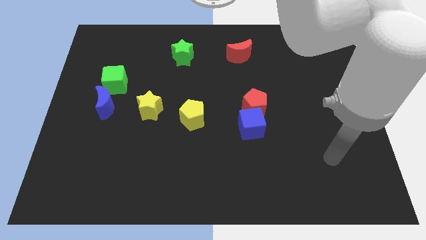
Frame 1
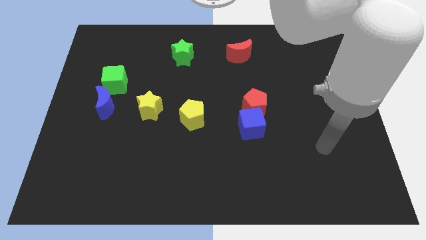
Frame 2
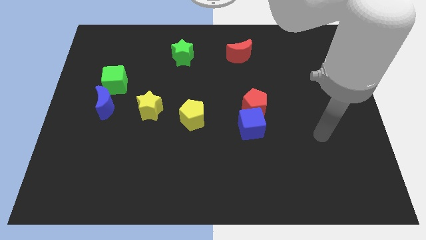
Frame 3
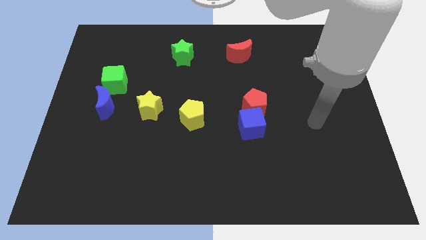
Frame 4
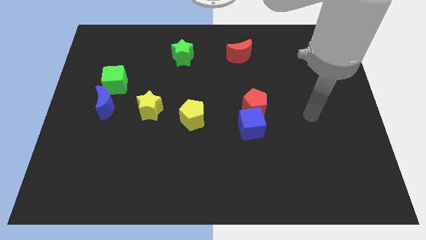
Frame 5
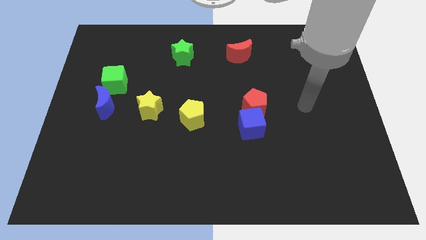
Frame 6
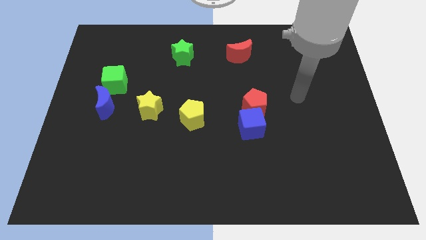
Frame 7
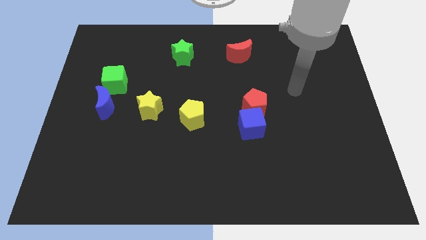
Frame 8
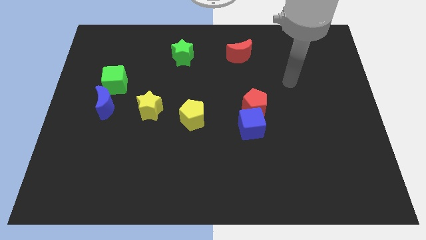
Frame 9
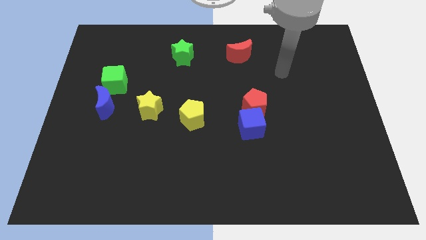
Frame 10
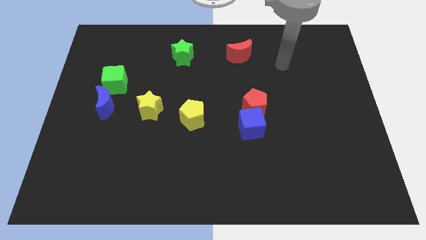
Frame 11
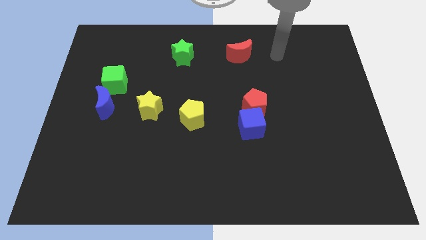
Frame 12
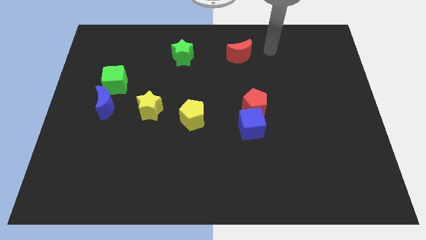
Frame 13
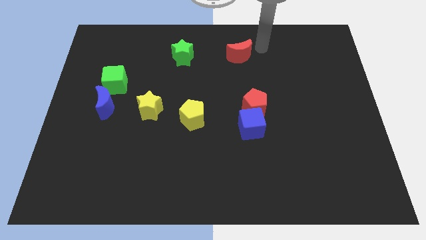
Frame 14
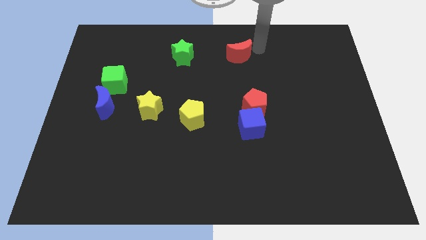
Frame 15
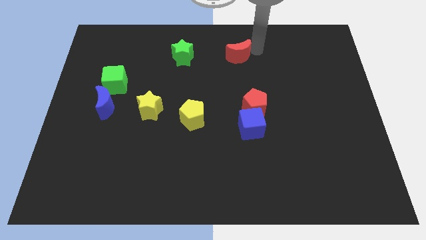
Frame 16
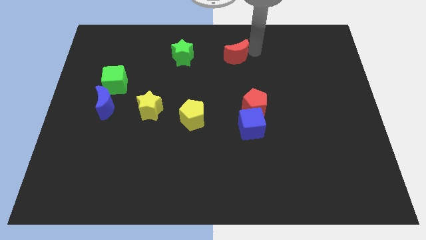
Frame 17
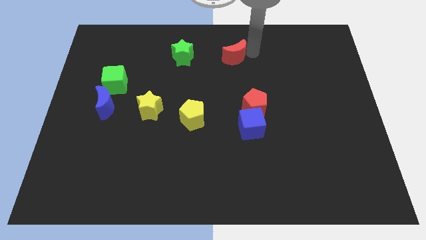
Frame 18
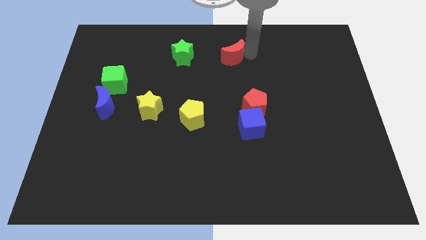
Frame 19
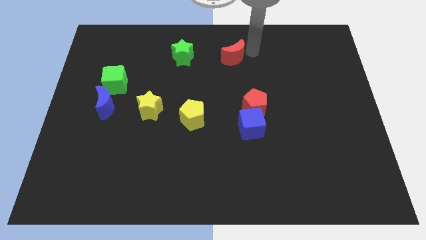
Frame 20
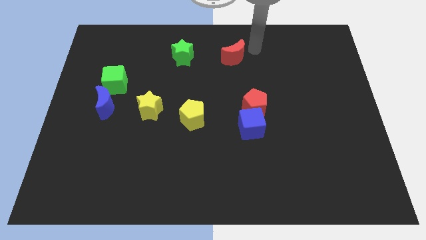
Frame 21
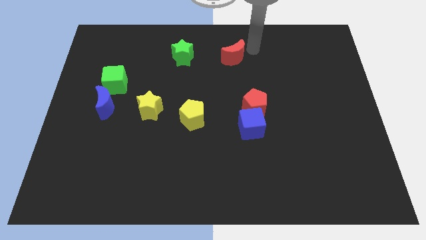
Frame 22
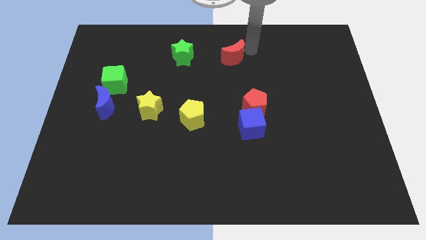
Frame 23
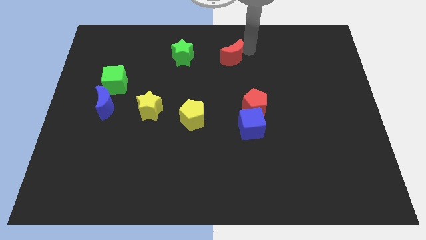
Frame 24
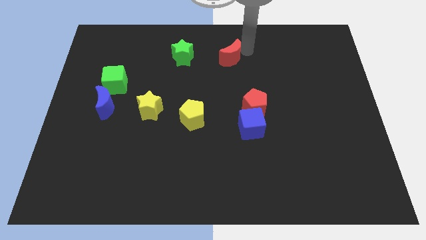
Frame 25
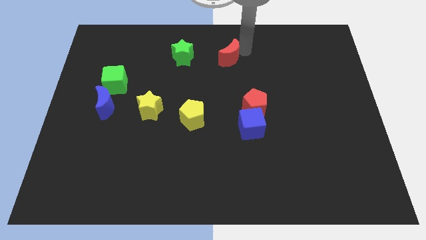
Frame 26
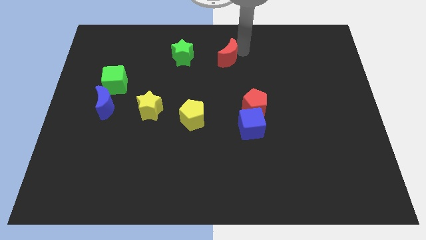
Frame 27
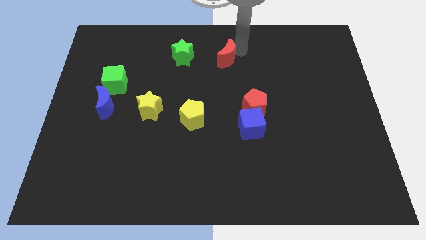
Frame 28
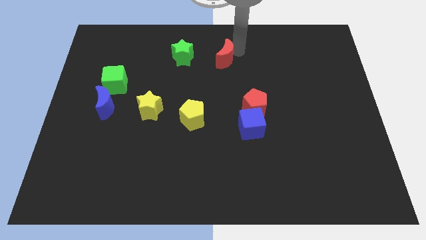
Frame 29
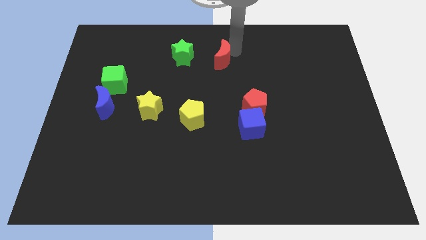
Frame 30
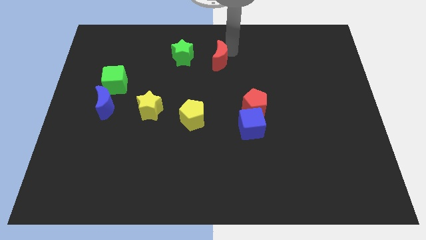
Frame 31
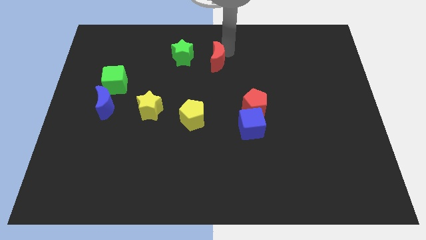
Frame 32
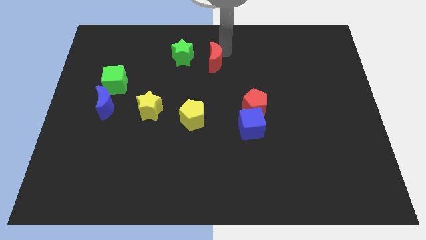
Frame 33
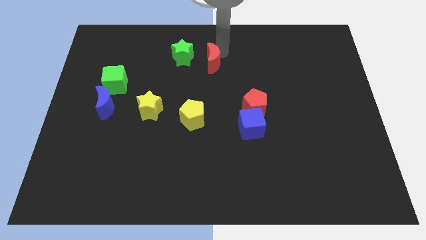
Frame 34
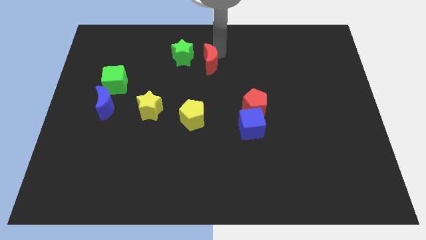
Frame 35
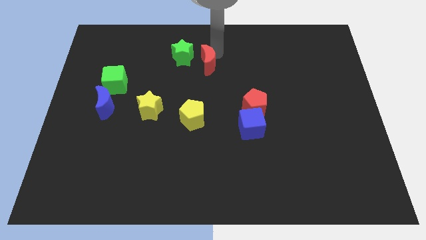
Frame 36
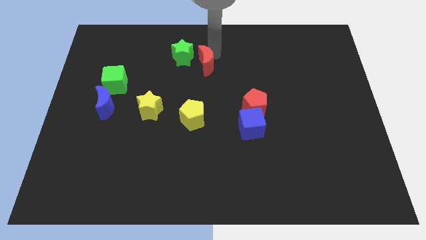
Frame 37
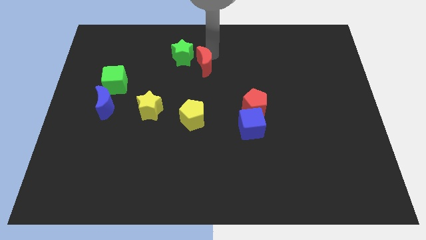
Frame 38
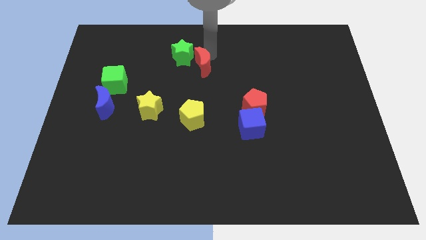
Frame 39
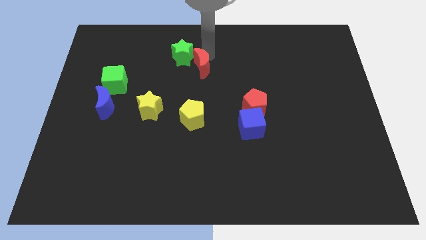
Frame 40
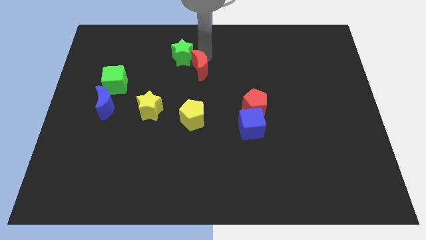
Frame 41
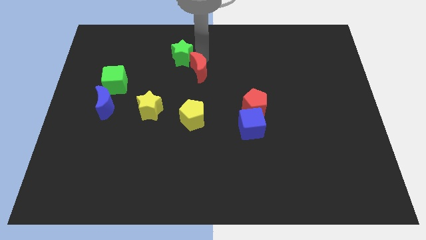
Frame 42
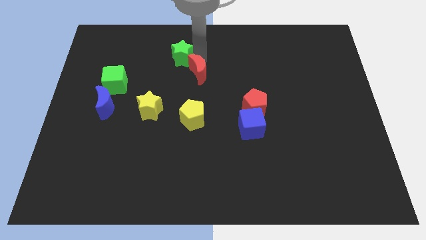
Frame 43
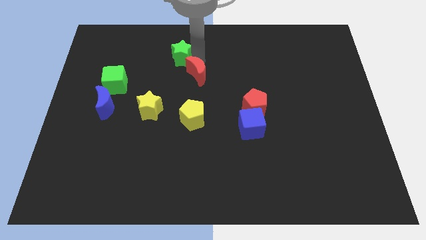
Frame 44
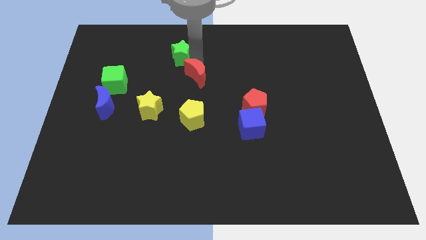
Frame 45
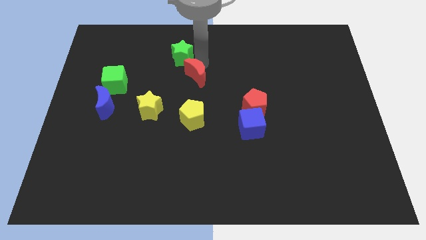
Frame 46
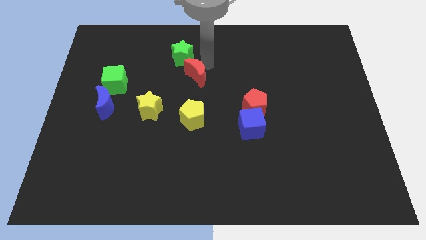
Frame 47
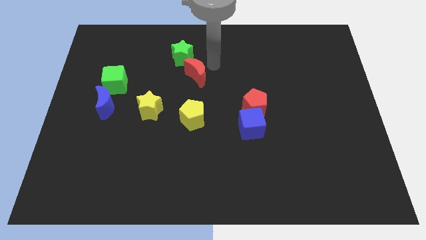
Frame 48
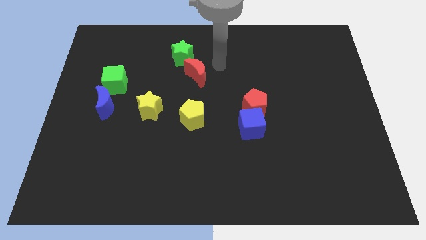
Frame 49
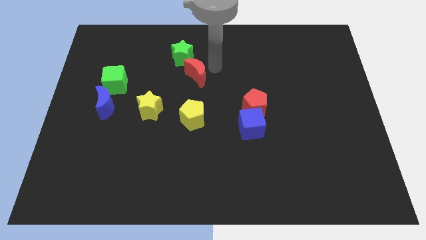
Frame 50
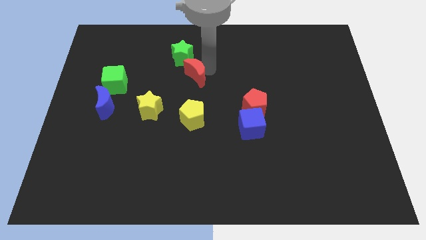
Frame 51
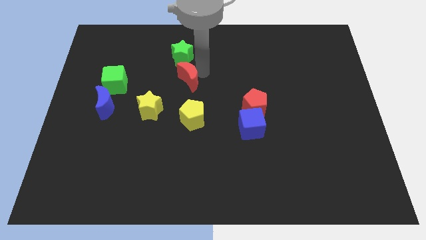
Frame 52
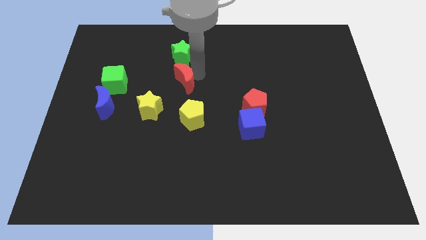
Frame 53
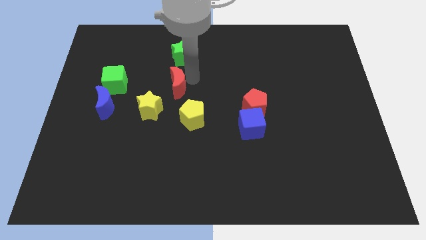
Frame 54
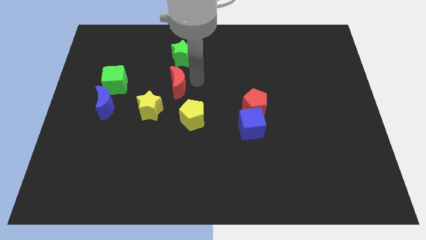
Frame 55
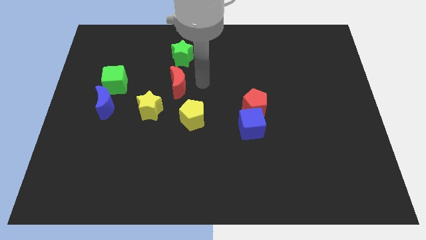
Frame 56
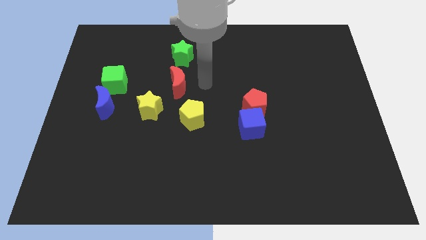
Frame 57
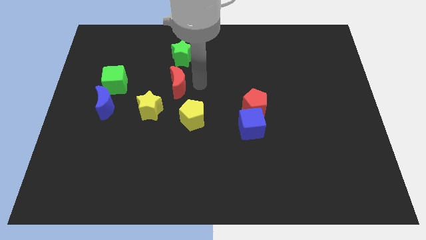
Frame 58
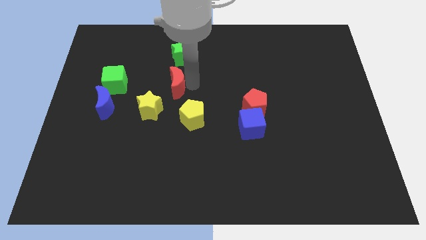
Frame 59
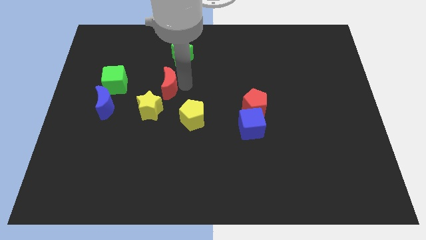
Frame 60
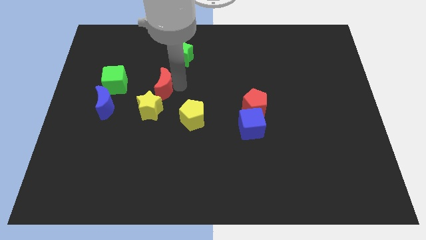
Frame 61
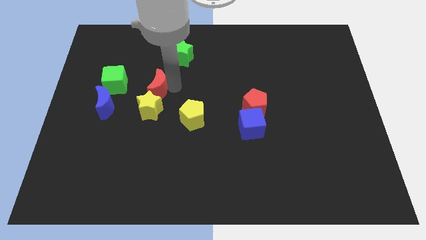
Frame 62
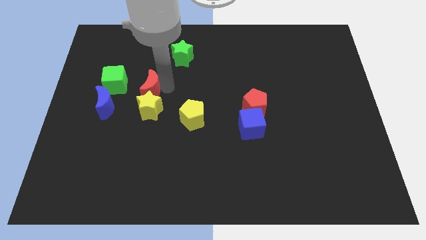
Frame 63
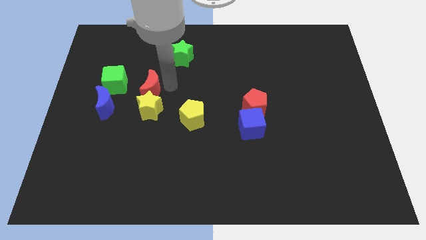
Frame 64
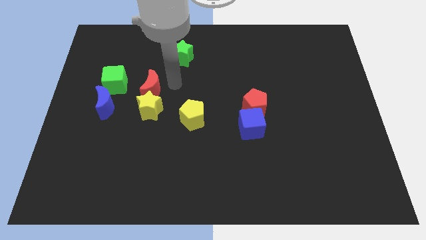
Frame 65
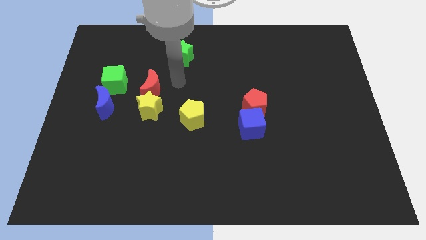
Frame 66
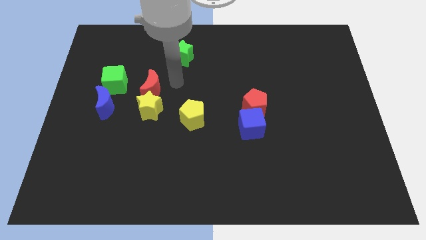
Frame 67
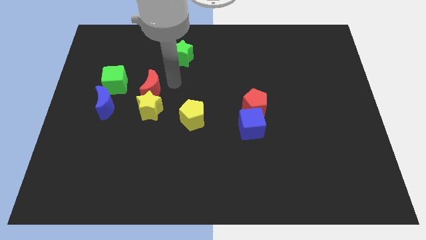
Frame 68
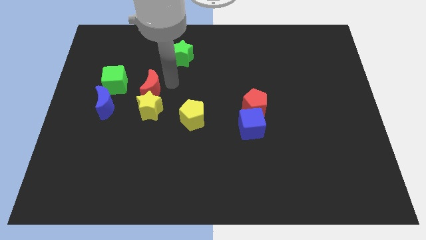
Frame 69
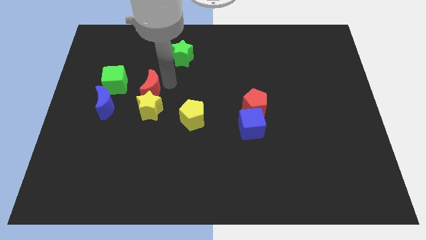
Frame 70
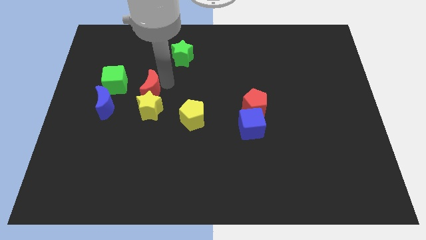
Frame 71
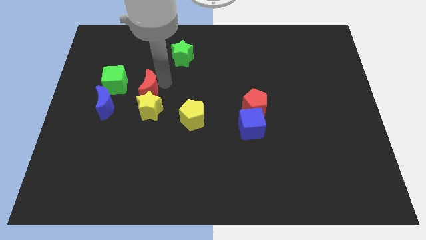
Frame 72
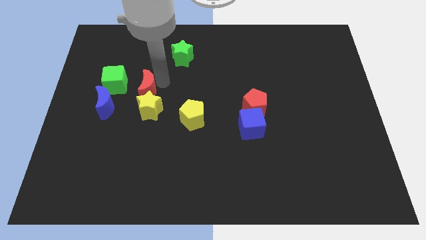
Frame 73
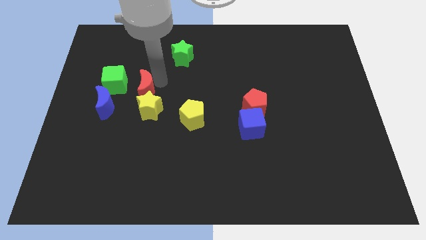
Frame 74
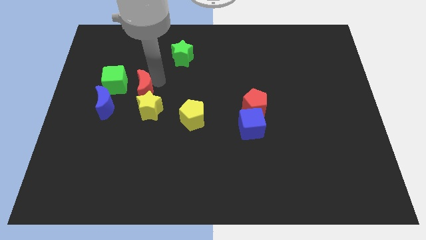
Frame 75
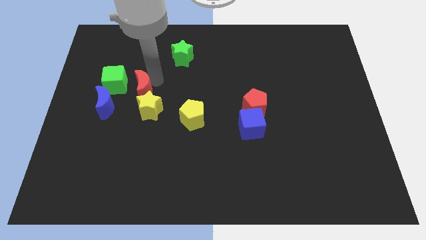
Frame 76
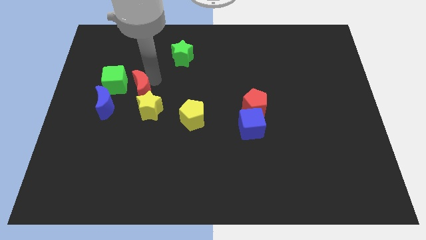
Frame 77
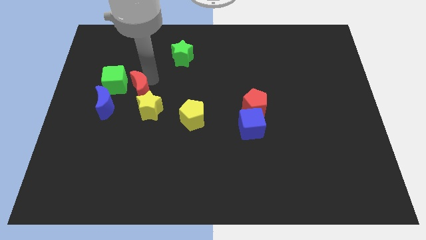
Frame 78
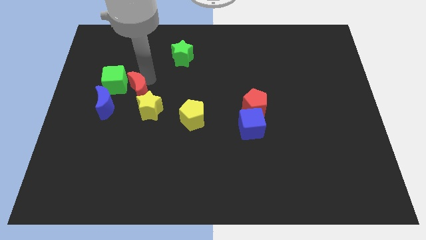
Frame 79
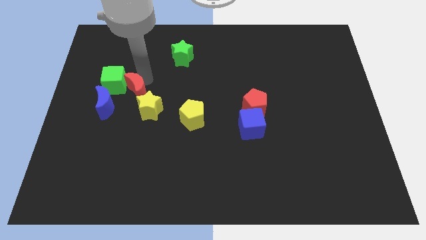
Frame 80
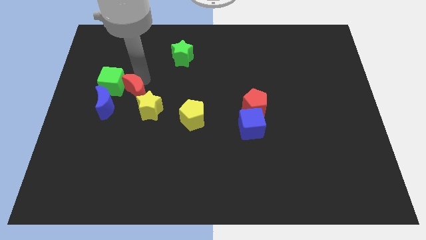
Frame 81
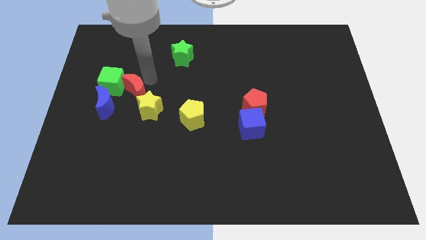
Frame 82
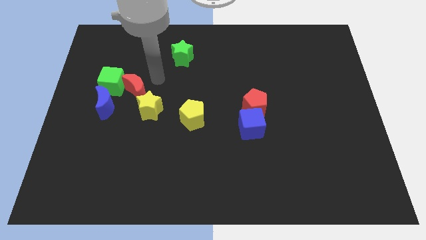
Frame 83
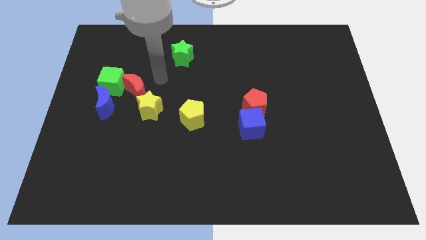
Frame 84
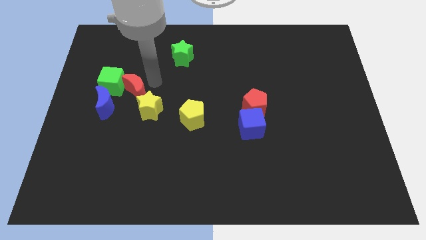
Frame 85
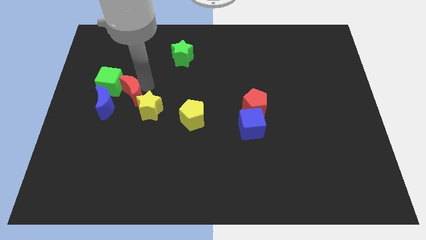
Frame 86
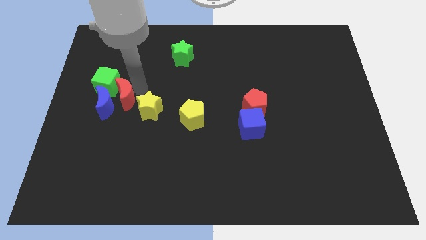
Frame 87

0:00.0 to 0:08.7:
slide the red moon towards the blue moon
